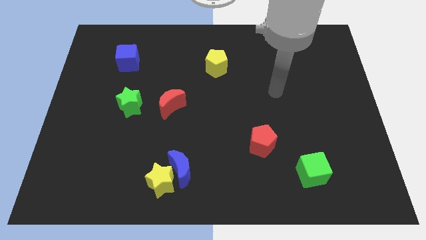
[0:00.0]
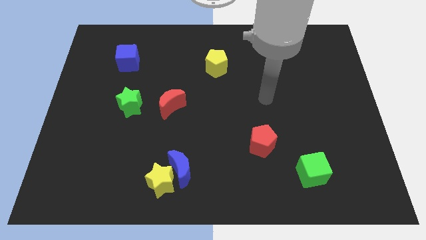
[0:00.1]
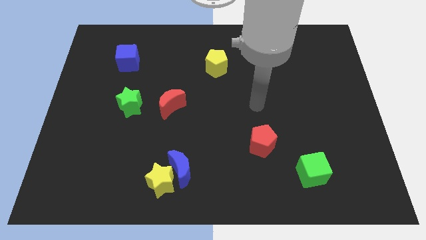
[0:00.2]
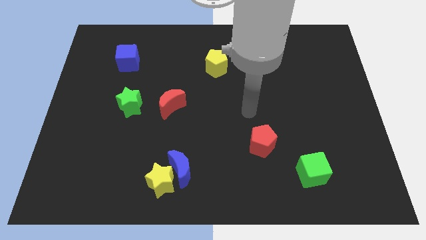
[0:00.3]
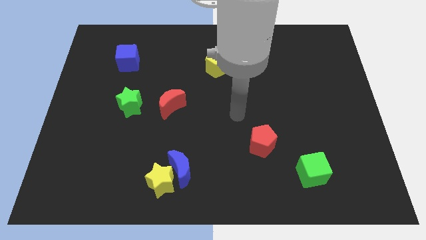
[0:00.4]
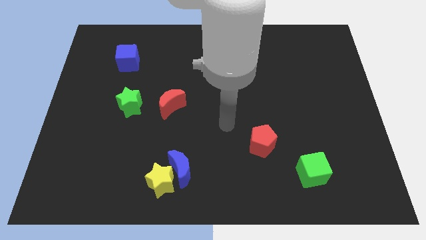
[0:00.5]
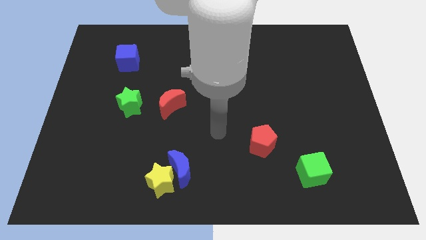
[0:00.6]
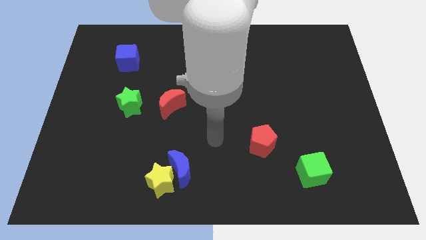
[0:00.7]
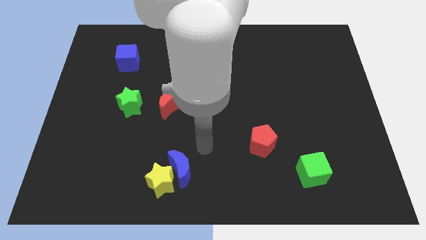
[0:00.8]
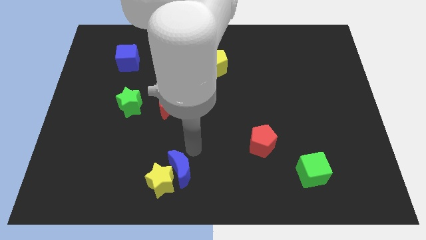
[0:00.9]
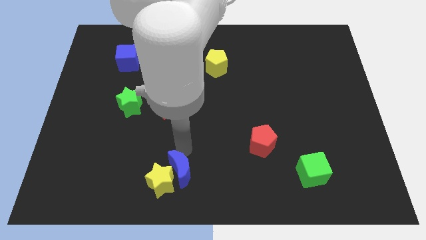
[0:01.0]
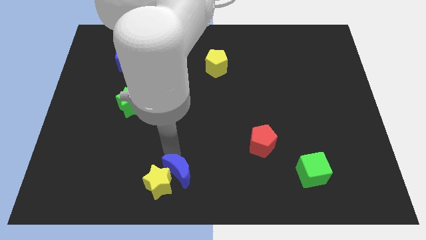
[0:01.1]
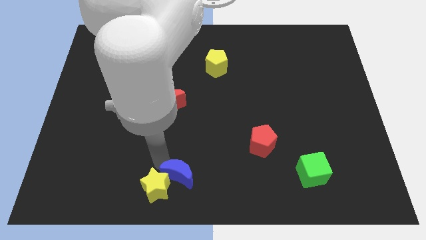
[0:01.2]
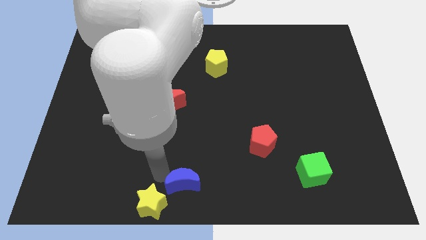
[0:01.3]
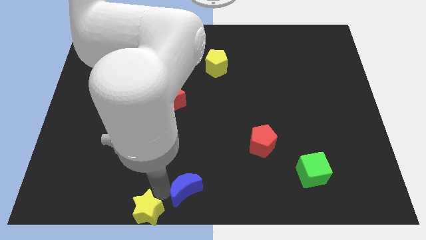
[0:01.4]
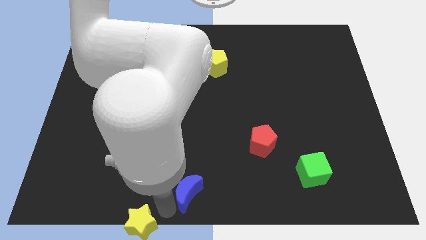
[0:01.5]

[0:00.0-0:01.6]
move the blue moon away from the yellow star

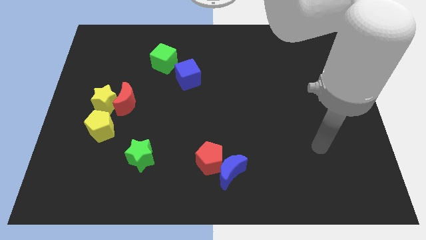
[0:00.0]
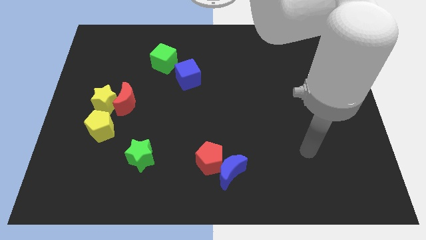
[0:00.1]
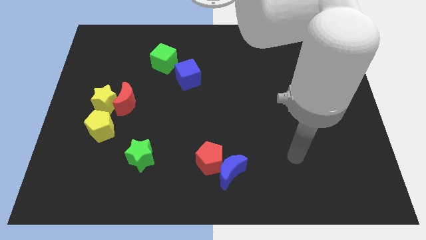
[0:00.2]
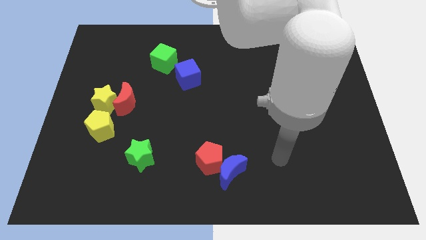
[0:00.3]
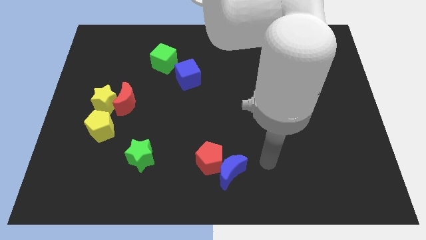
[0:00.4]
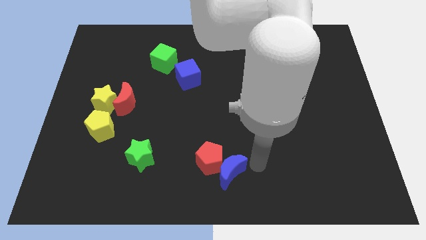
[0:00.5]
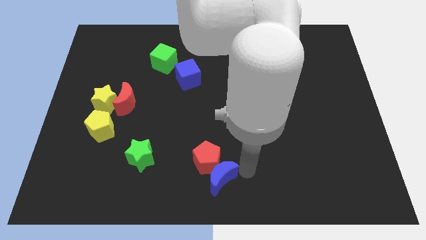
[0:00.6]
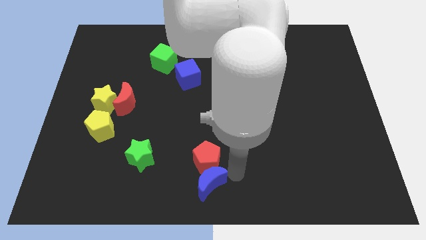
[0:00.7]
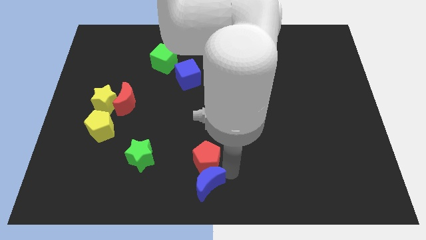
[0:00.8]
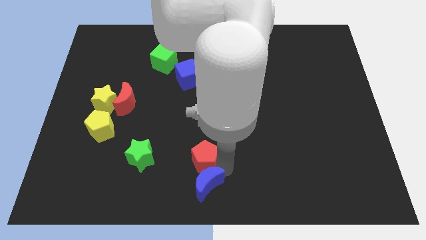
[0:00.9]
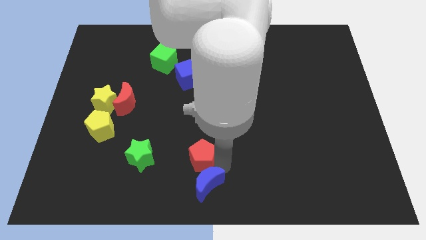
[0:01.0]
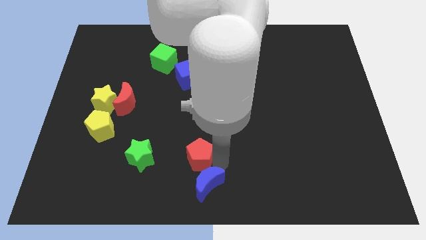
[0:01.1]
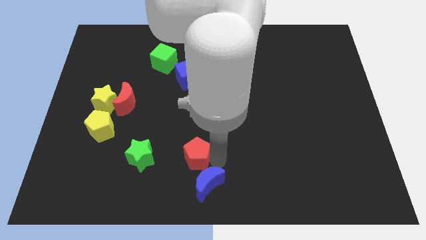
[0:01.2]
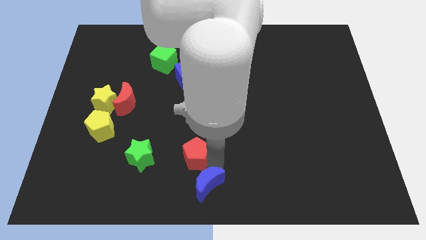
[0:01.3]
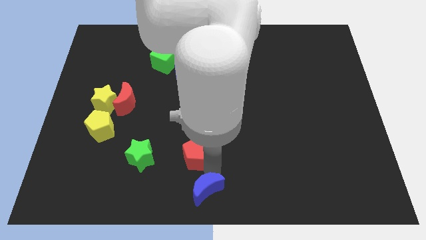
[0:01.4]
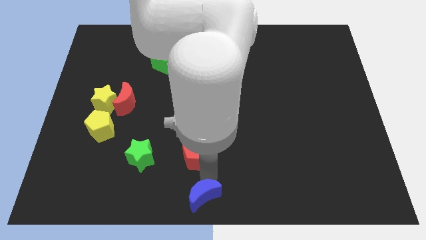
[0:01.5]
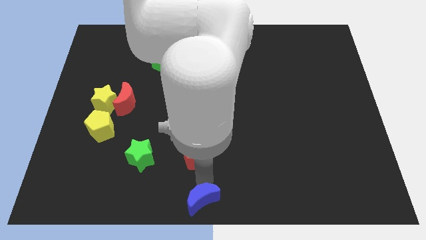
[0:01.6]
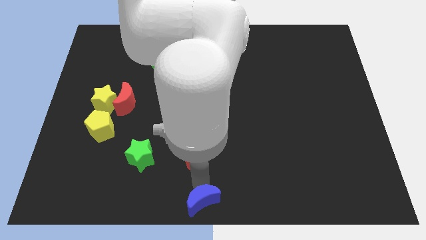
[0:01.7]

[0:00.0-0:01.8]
move the red pentagon away from the blue moon

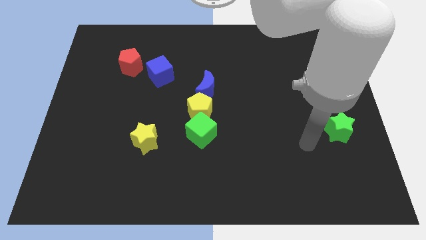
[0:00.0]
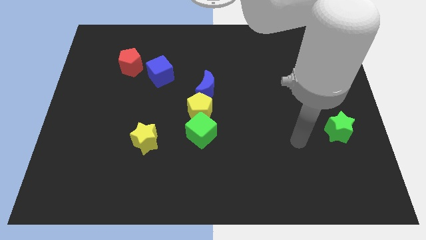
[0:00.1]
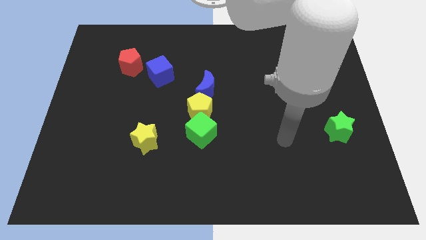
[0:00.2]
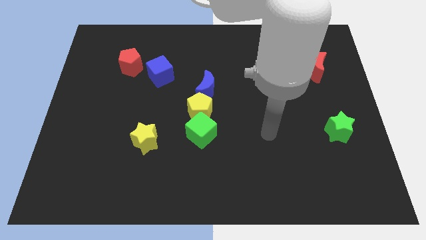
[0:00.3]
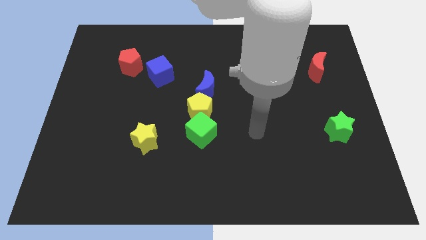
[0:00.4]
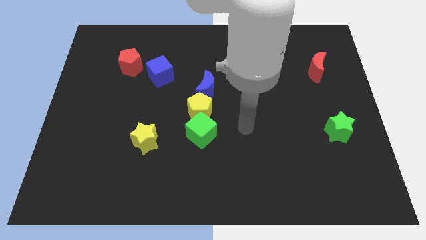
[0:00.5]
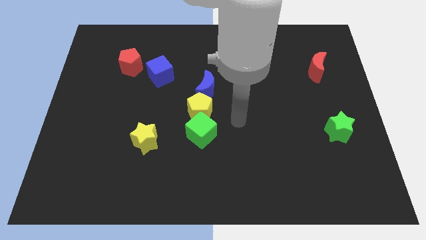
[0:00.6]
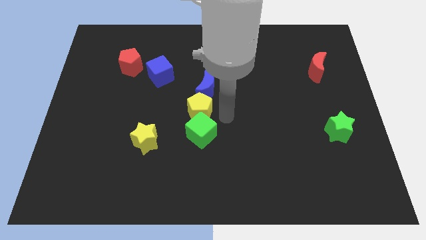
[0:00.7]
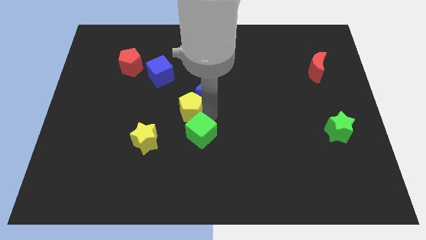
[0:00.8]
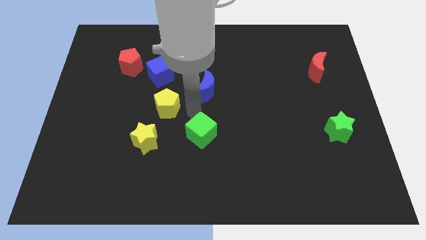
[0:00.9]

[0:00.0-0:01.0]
move the green cube away from the yellow pentagon

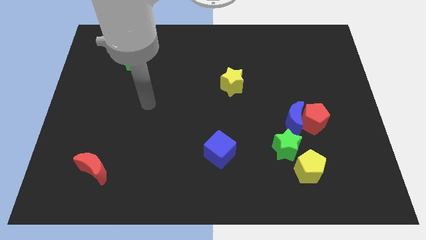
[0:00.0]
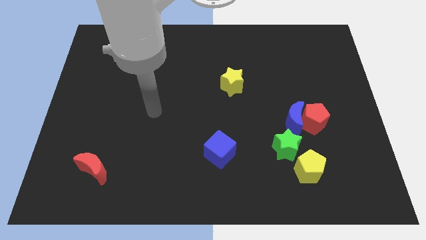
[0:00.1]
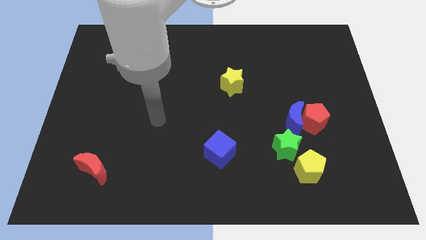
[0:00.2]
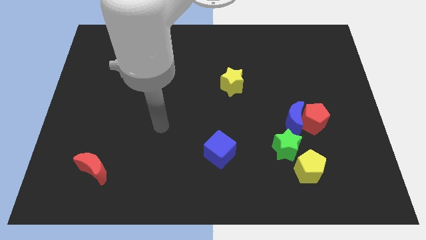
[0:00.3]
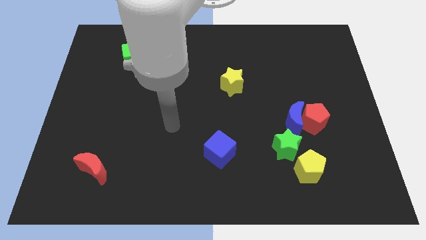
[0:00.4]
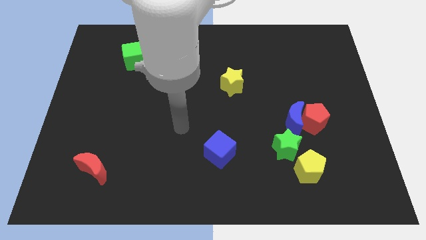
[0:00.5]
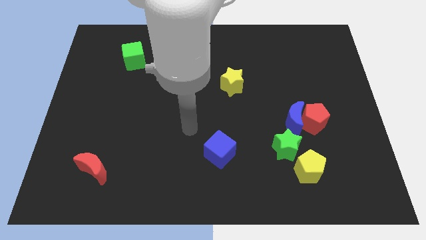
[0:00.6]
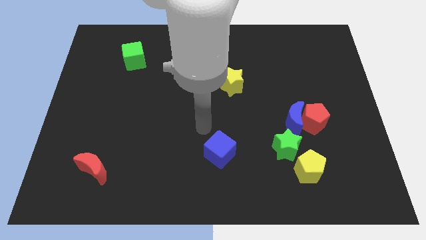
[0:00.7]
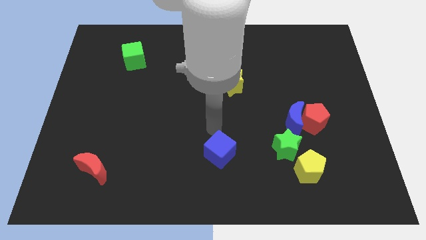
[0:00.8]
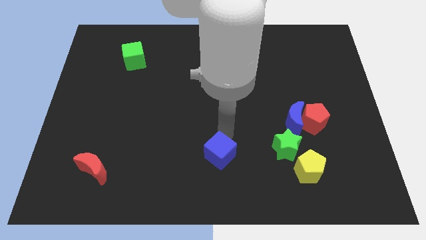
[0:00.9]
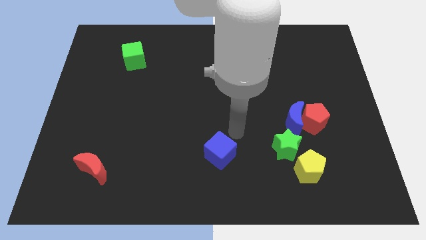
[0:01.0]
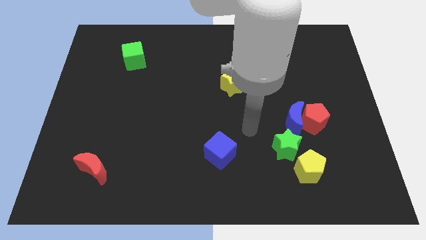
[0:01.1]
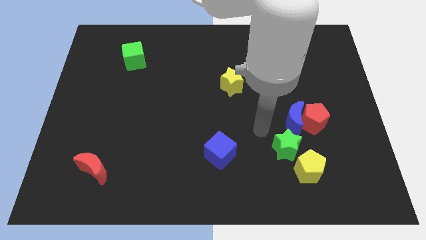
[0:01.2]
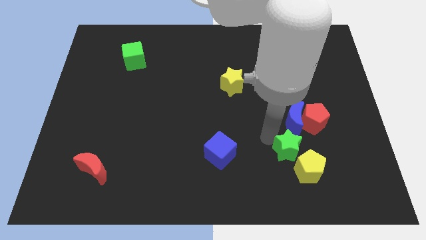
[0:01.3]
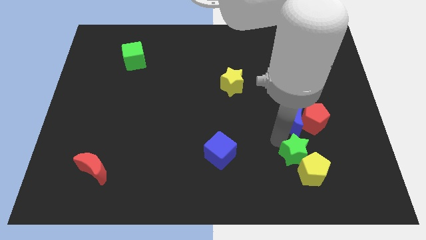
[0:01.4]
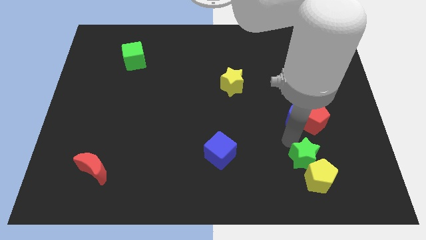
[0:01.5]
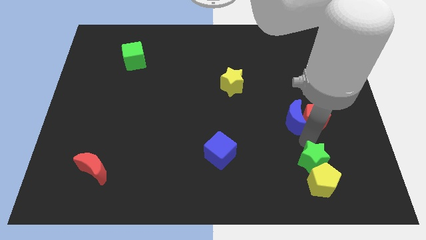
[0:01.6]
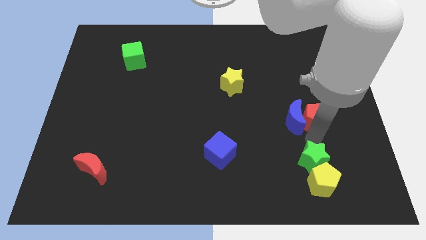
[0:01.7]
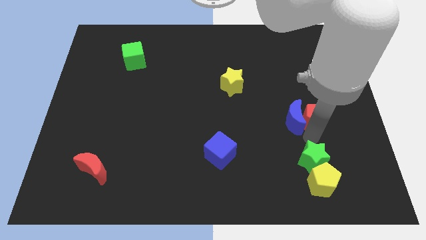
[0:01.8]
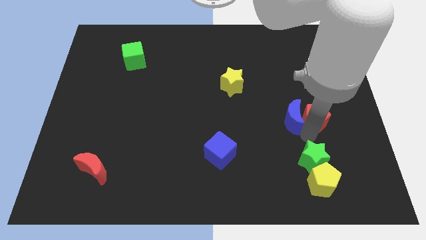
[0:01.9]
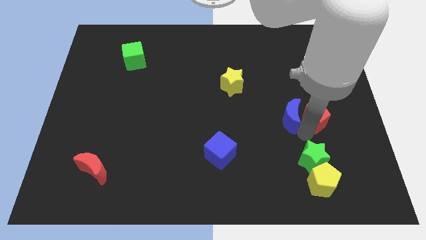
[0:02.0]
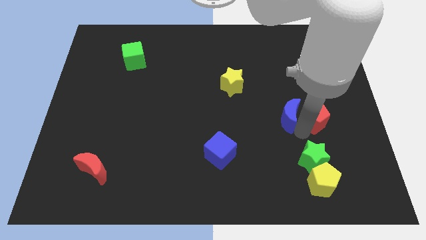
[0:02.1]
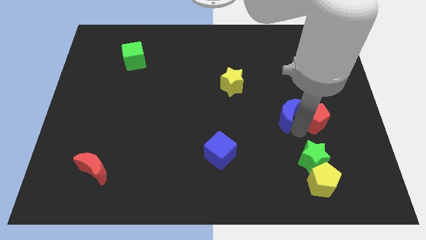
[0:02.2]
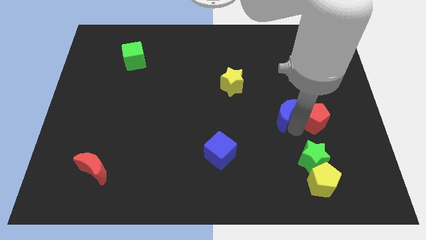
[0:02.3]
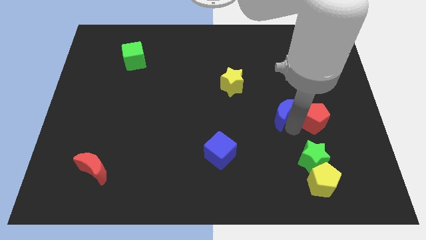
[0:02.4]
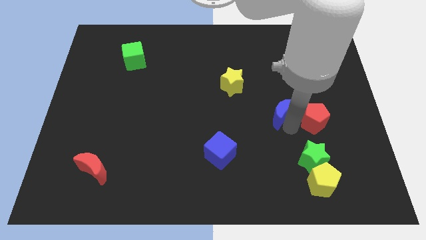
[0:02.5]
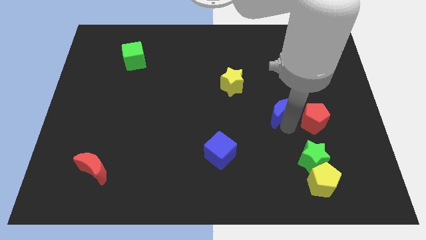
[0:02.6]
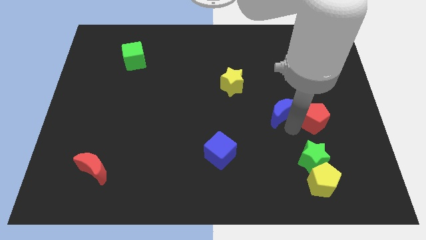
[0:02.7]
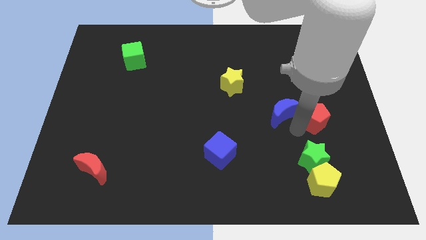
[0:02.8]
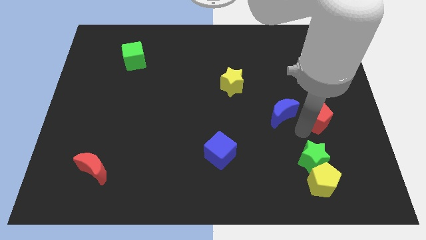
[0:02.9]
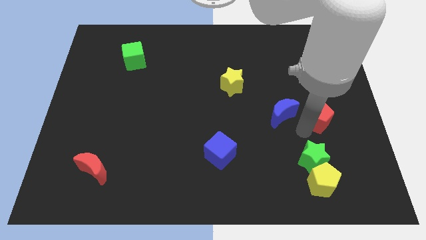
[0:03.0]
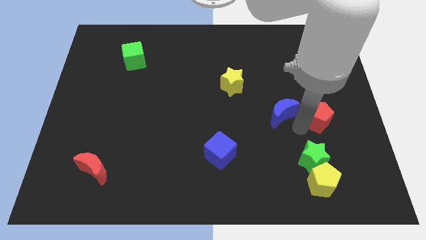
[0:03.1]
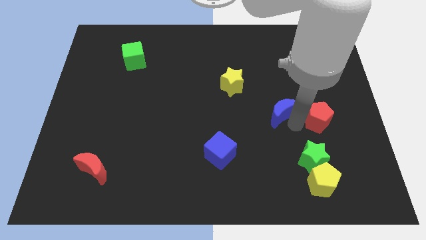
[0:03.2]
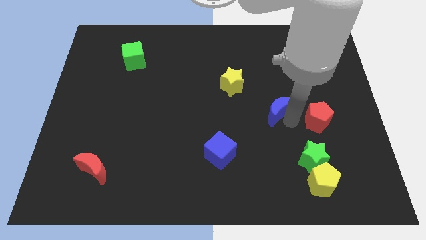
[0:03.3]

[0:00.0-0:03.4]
move the blue moon away from the red pentagon and green star

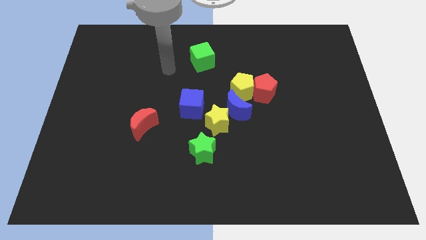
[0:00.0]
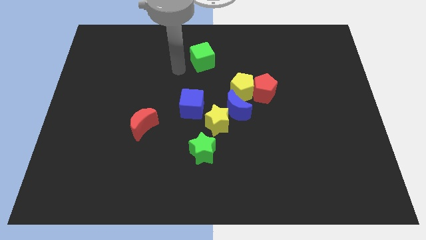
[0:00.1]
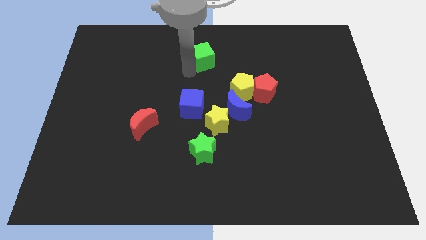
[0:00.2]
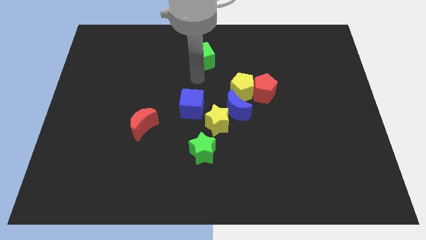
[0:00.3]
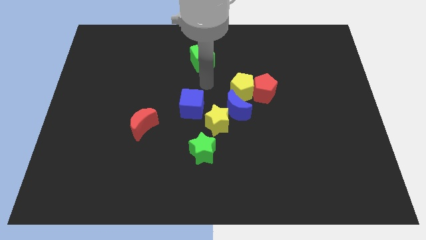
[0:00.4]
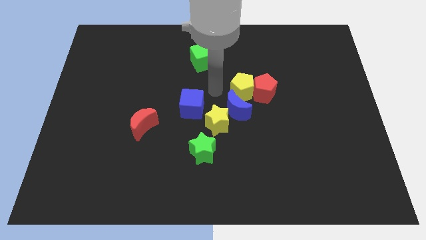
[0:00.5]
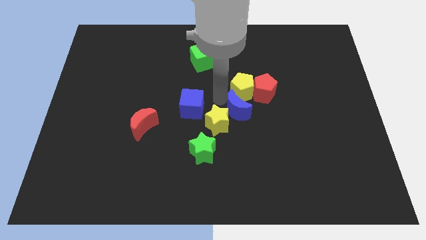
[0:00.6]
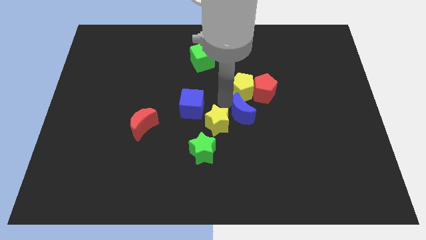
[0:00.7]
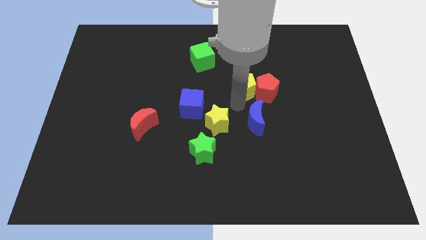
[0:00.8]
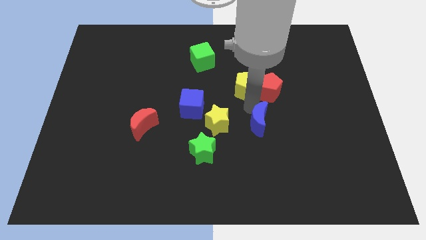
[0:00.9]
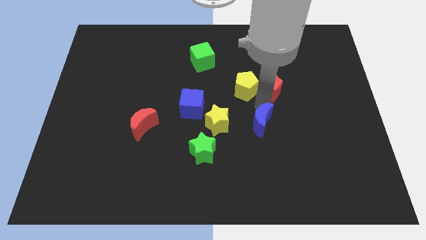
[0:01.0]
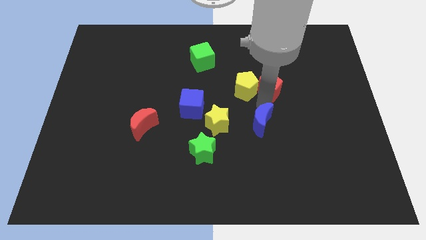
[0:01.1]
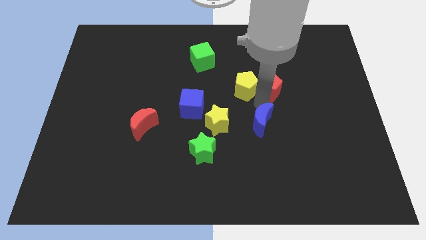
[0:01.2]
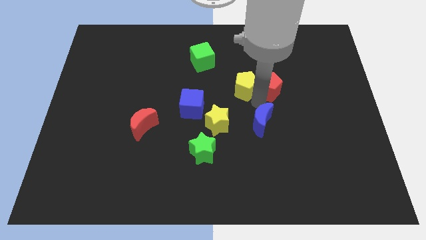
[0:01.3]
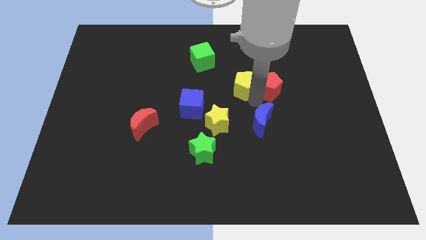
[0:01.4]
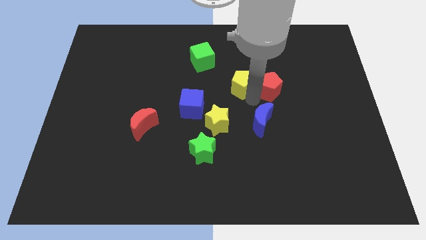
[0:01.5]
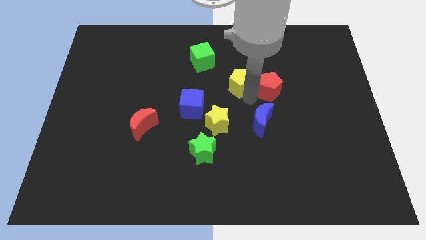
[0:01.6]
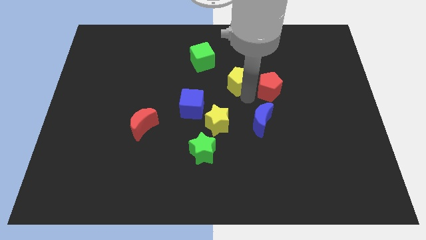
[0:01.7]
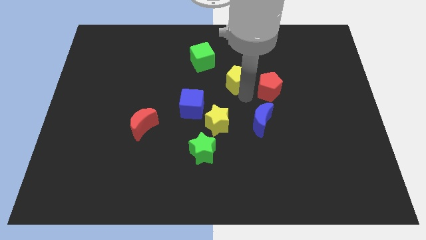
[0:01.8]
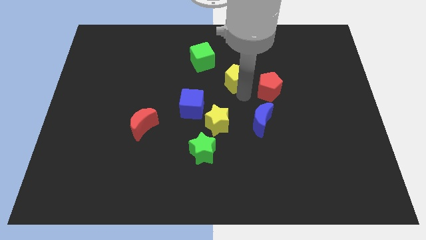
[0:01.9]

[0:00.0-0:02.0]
pull the yellow pentagon apart from the red pentagon and blue moon
